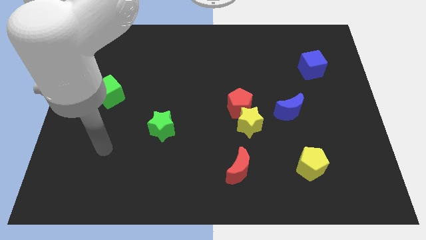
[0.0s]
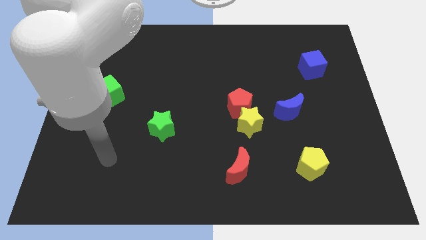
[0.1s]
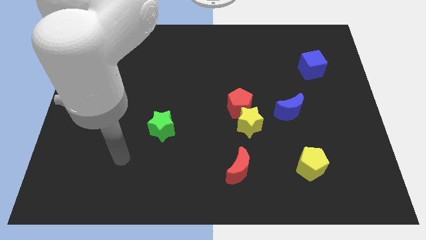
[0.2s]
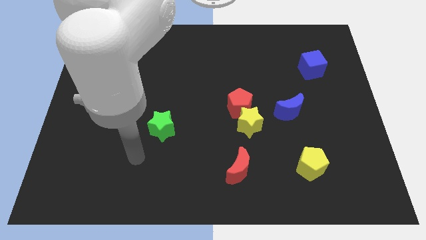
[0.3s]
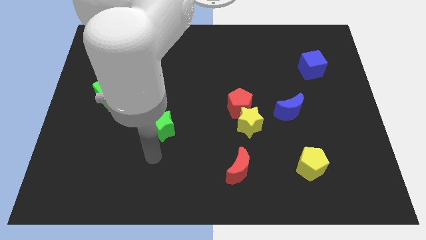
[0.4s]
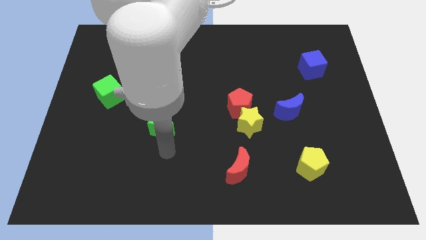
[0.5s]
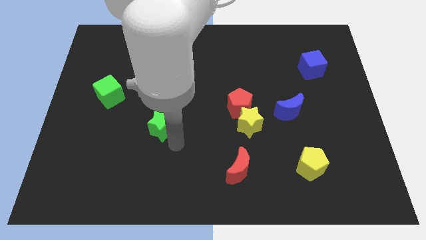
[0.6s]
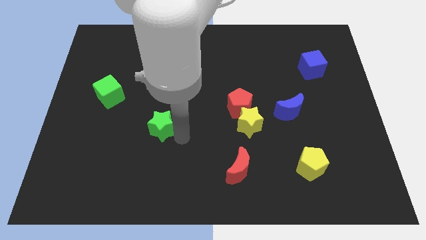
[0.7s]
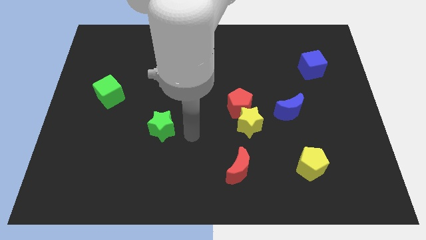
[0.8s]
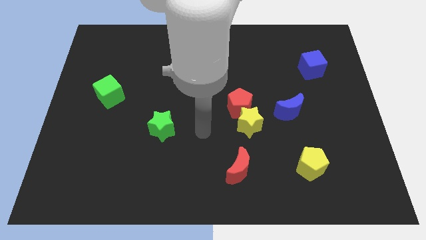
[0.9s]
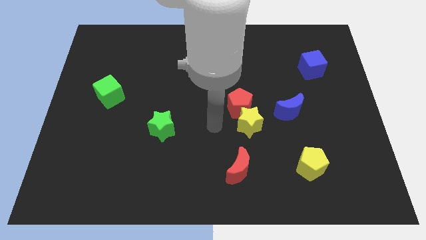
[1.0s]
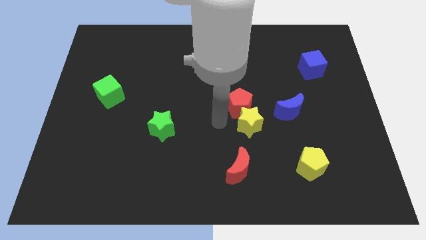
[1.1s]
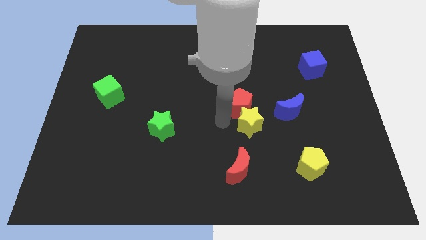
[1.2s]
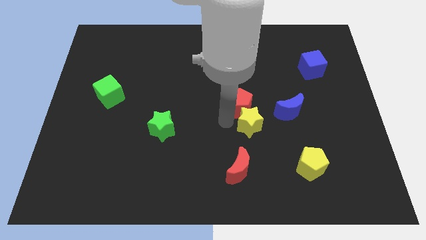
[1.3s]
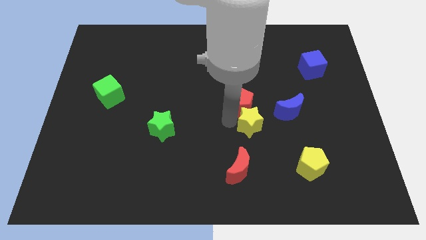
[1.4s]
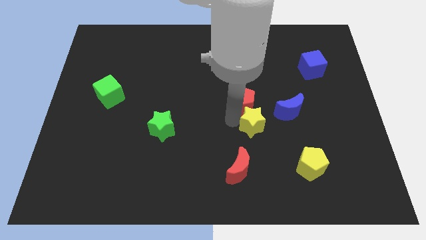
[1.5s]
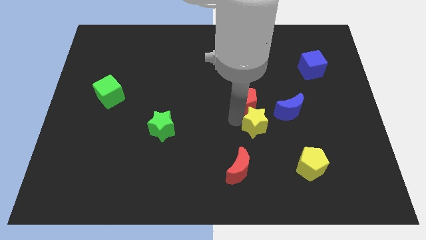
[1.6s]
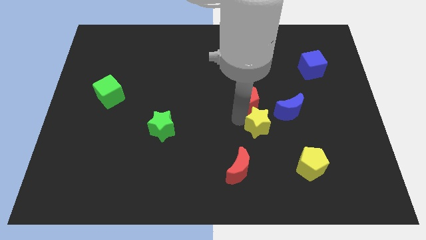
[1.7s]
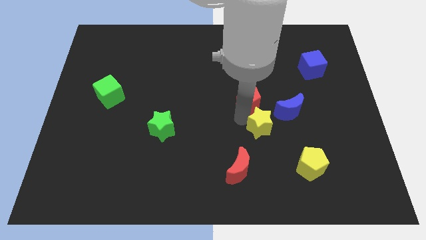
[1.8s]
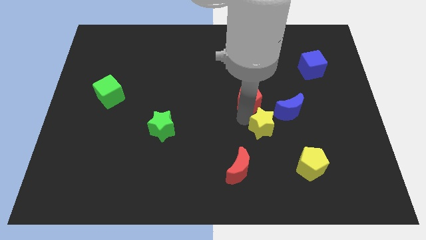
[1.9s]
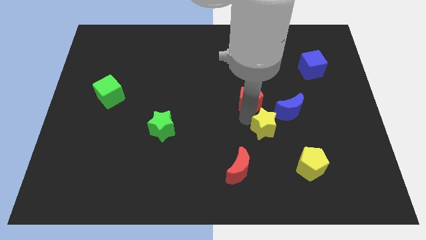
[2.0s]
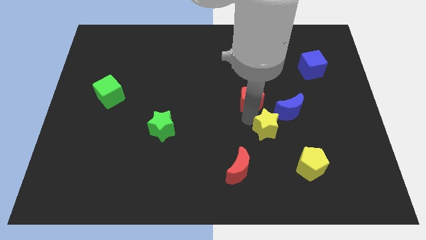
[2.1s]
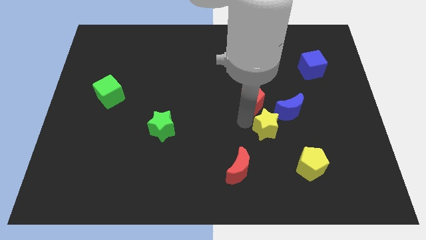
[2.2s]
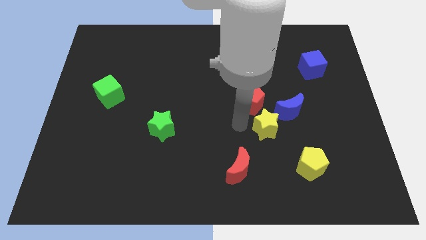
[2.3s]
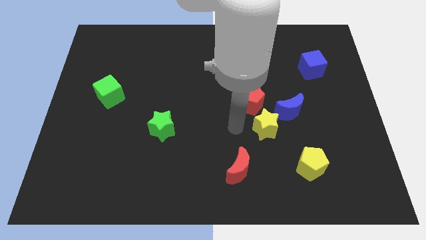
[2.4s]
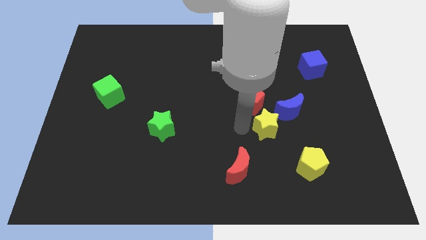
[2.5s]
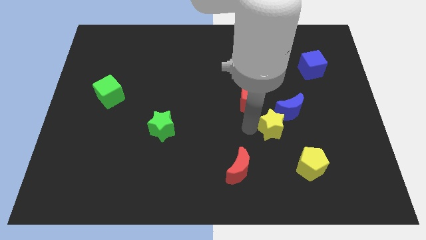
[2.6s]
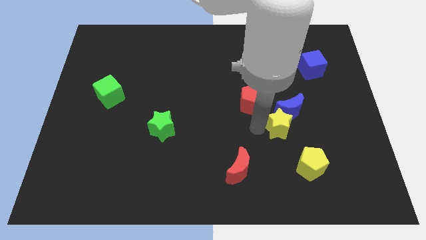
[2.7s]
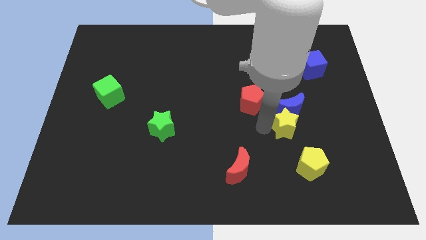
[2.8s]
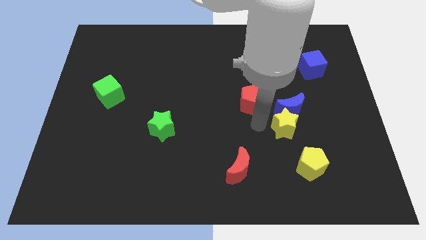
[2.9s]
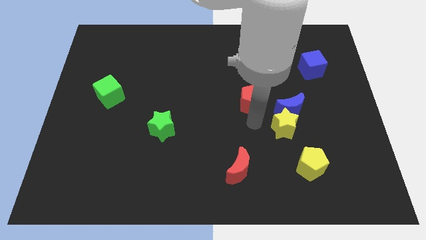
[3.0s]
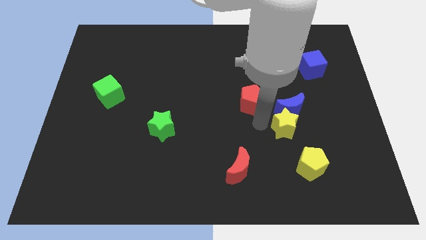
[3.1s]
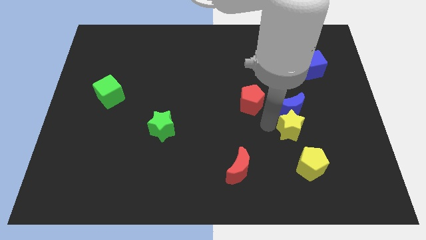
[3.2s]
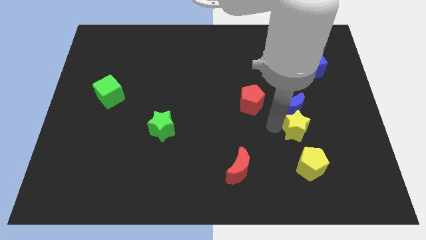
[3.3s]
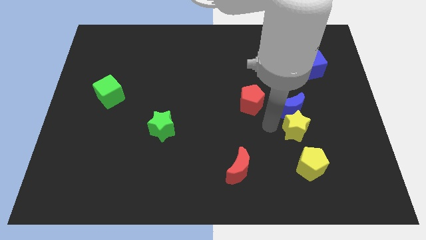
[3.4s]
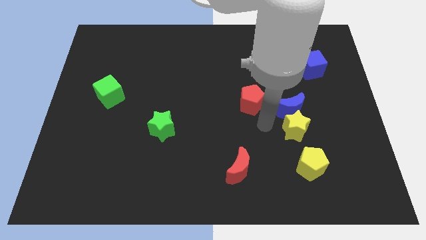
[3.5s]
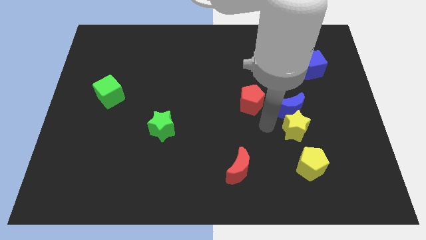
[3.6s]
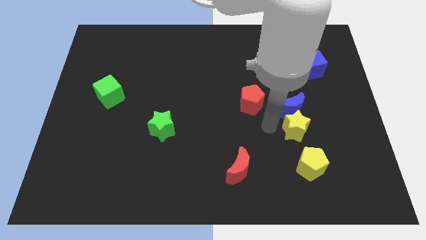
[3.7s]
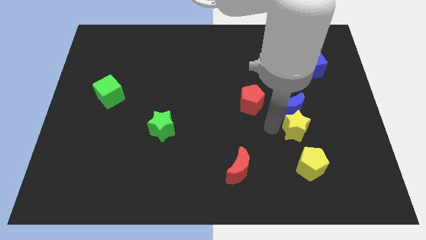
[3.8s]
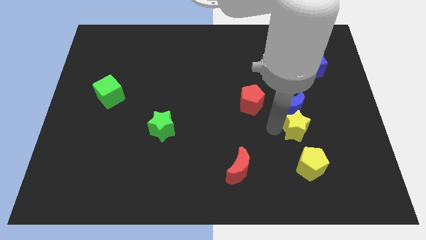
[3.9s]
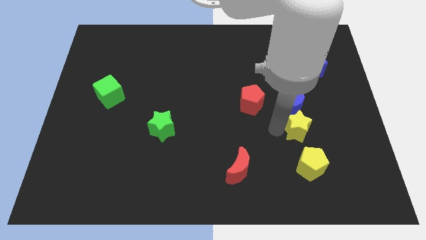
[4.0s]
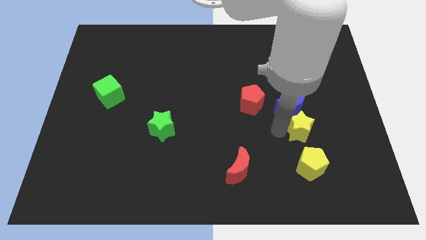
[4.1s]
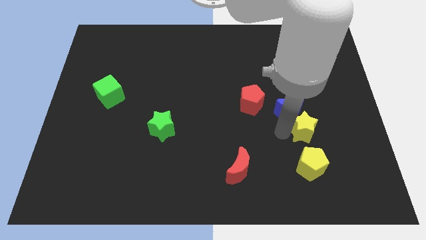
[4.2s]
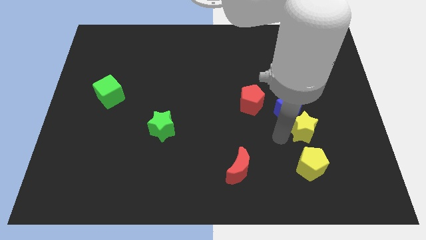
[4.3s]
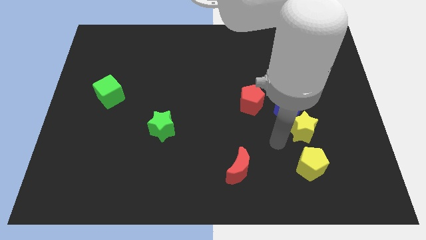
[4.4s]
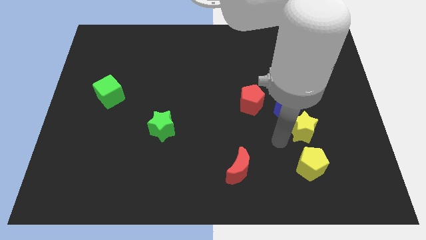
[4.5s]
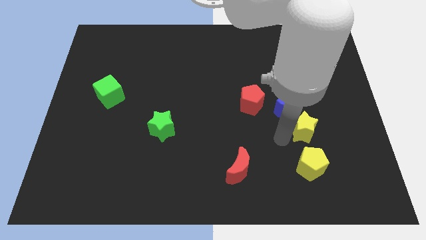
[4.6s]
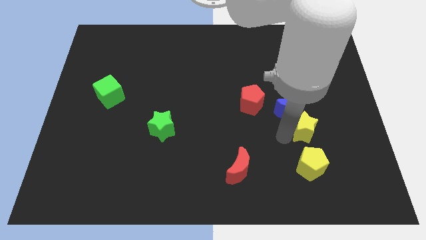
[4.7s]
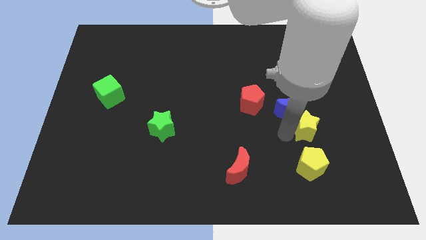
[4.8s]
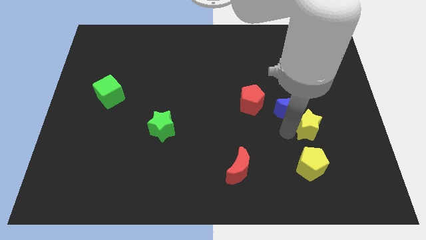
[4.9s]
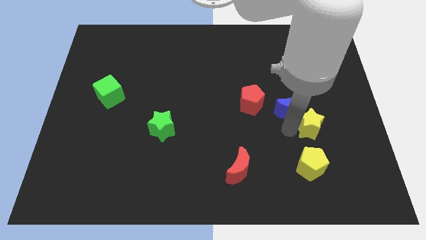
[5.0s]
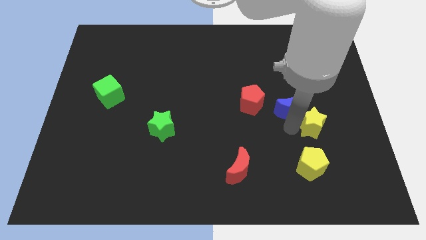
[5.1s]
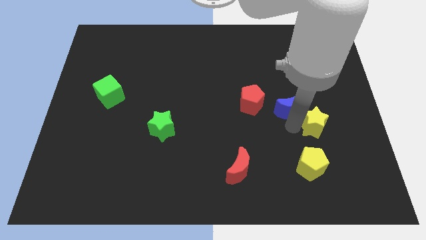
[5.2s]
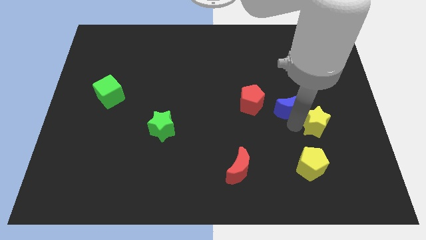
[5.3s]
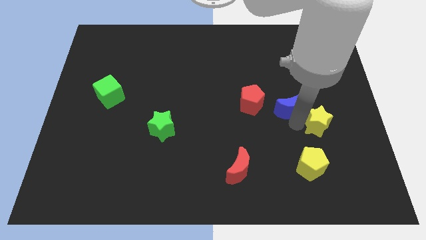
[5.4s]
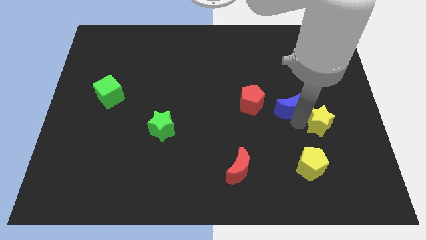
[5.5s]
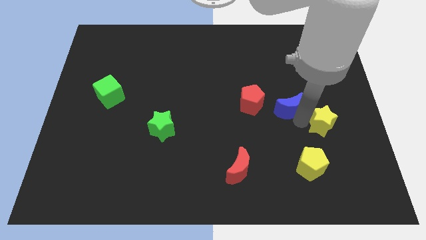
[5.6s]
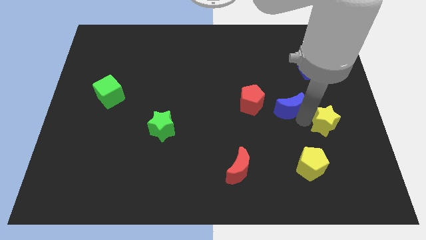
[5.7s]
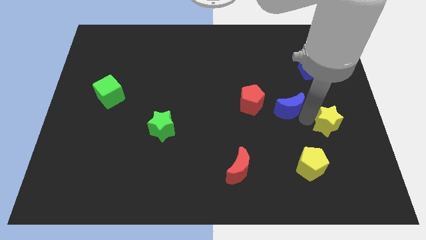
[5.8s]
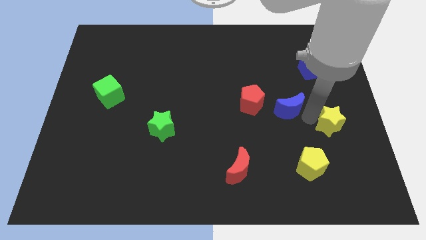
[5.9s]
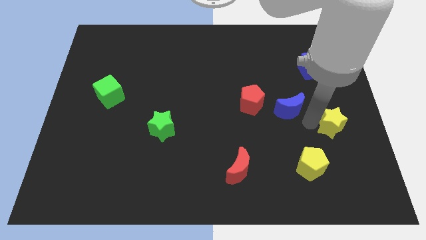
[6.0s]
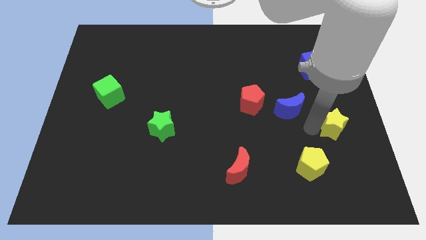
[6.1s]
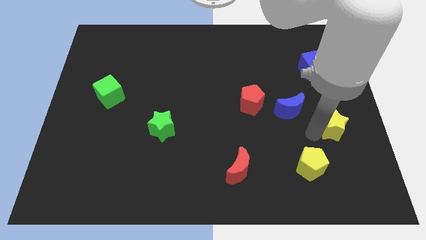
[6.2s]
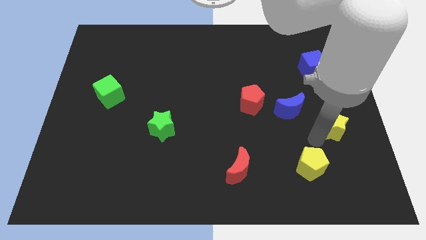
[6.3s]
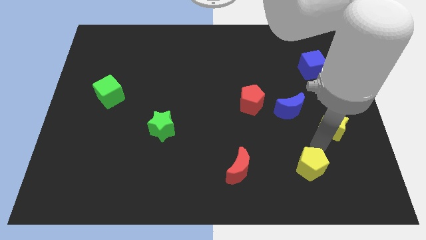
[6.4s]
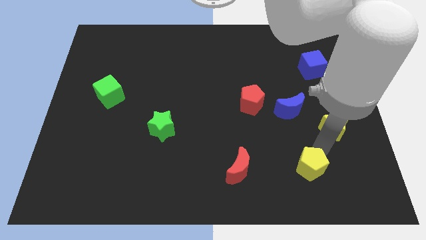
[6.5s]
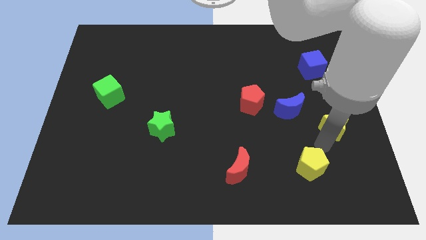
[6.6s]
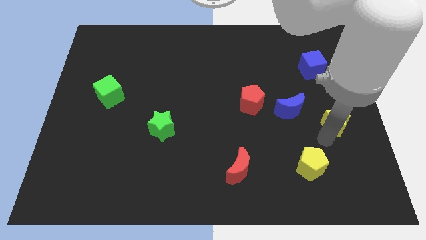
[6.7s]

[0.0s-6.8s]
put the yellow star to the center right
